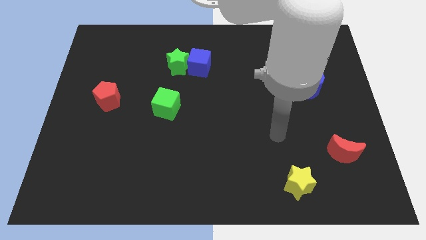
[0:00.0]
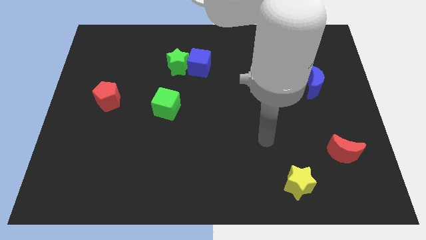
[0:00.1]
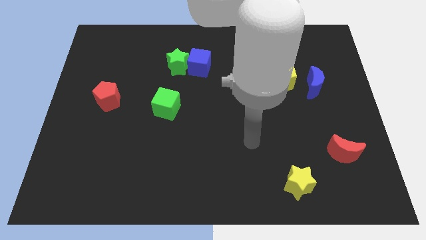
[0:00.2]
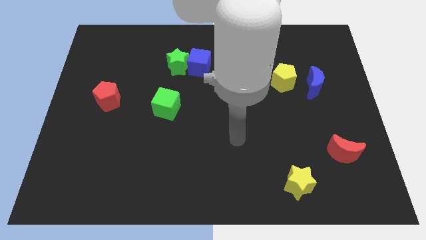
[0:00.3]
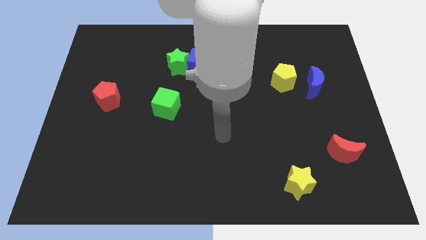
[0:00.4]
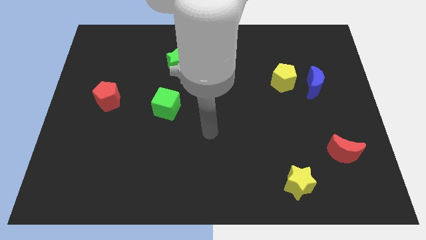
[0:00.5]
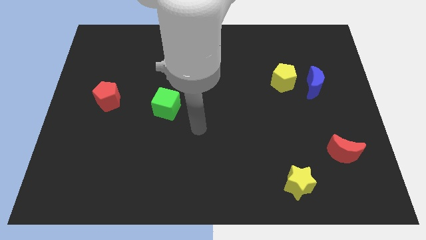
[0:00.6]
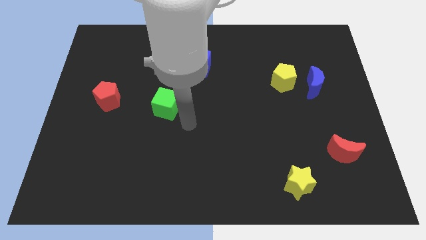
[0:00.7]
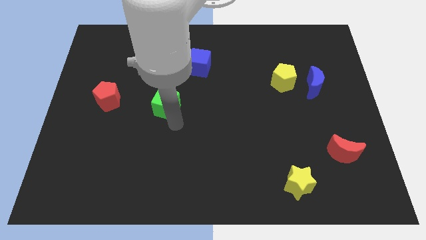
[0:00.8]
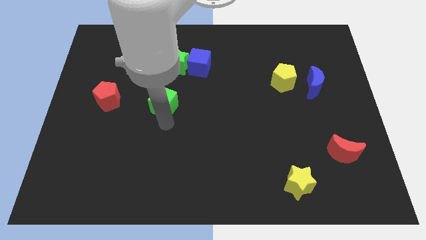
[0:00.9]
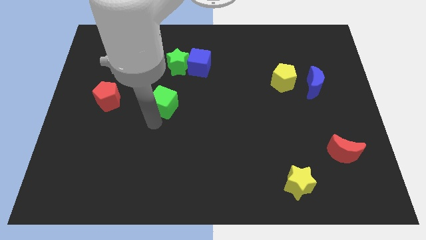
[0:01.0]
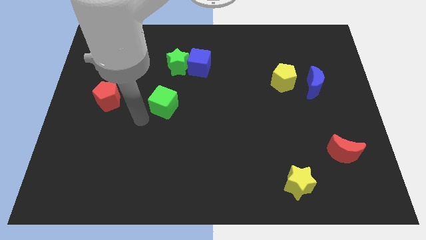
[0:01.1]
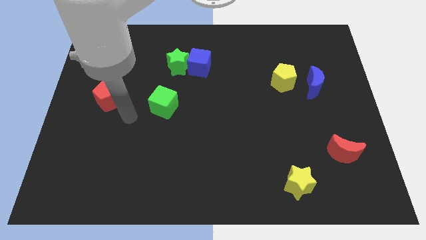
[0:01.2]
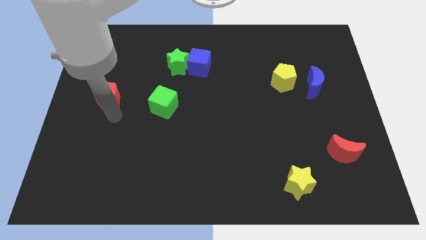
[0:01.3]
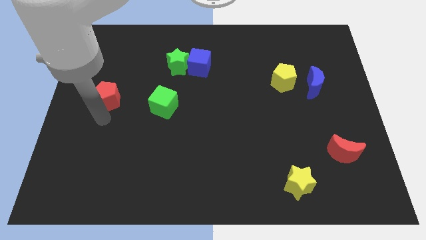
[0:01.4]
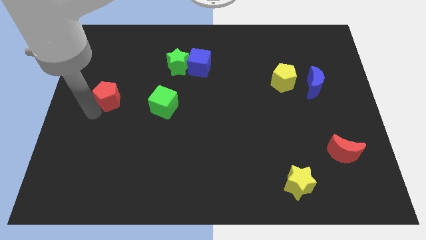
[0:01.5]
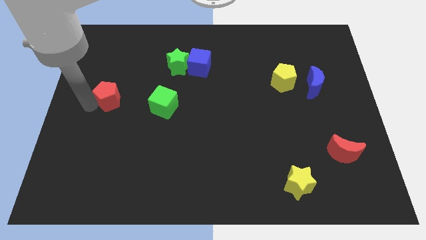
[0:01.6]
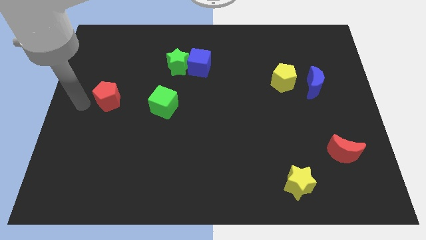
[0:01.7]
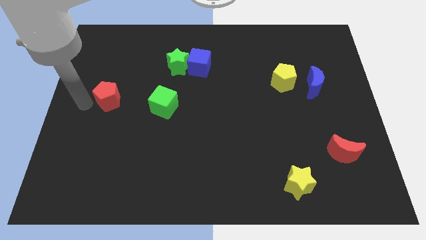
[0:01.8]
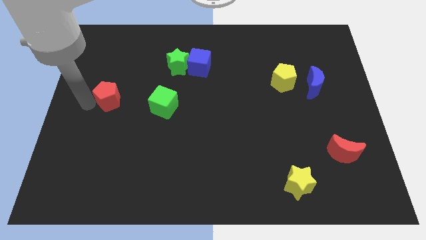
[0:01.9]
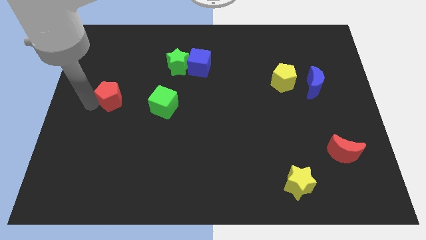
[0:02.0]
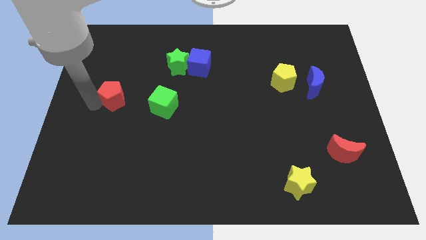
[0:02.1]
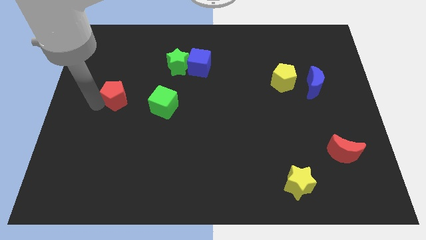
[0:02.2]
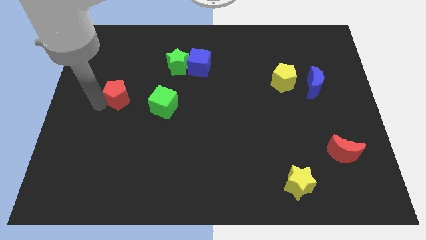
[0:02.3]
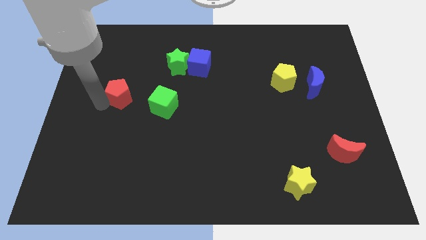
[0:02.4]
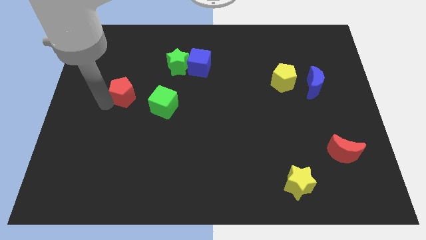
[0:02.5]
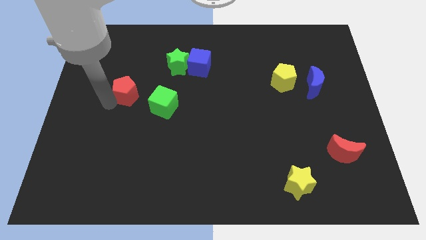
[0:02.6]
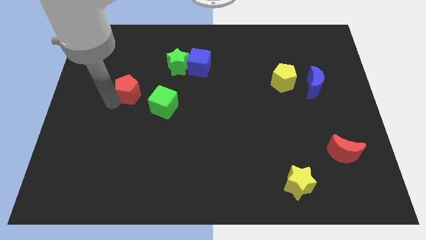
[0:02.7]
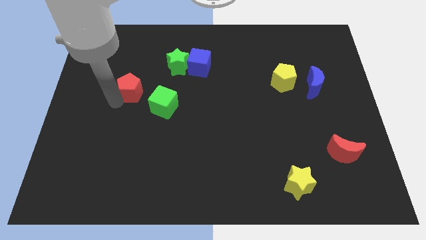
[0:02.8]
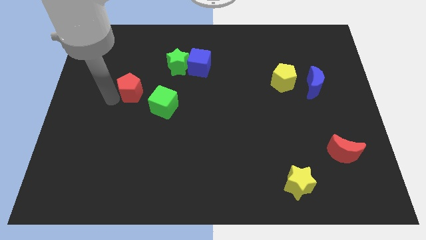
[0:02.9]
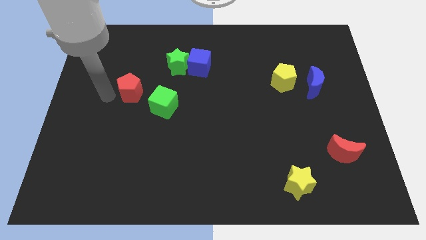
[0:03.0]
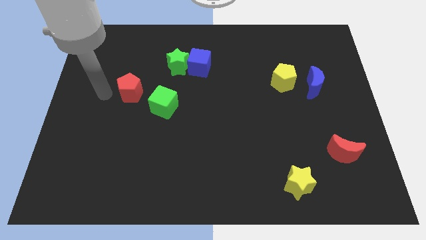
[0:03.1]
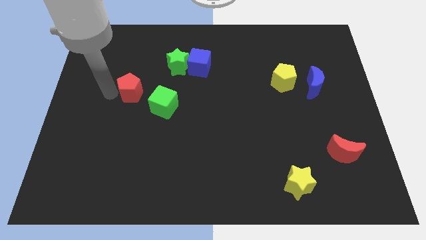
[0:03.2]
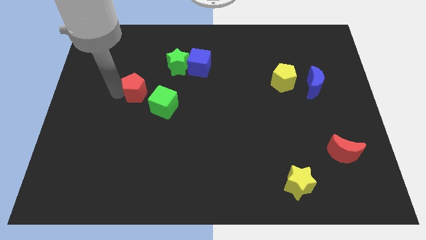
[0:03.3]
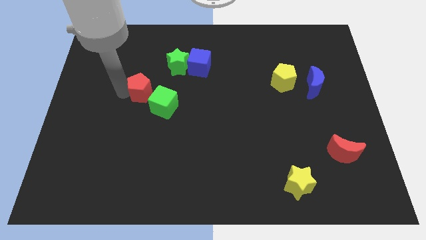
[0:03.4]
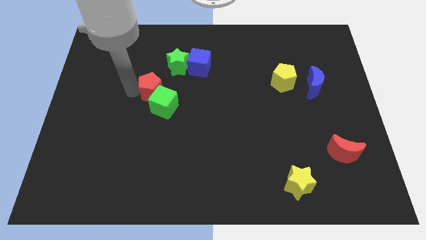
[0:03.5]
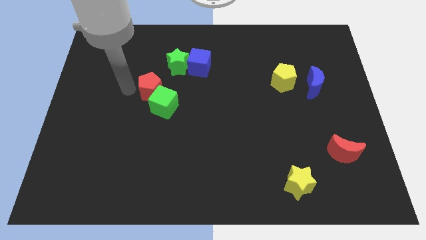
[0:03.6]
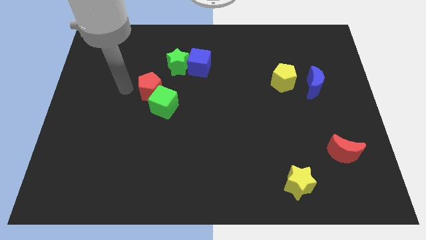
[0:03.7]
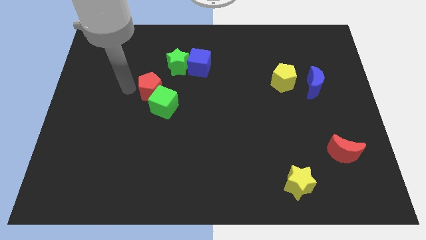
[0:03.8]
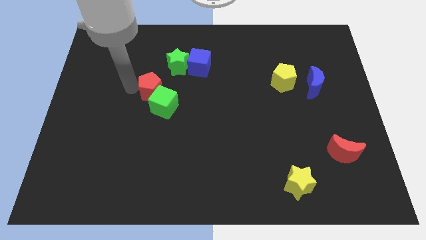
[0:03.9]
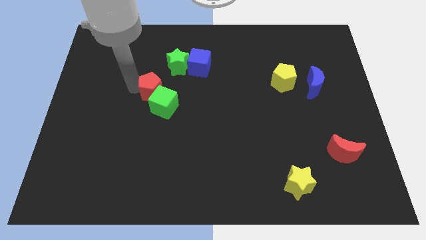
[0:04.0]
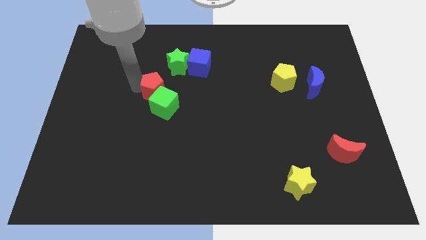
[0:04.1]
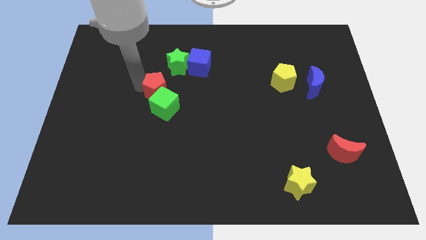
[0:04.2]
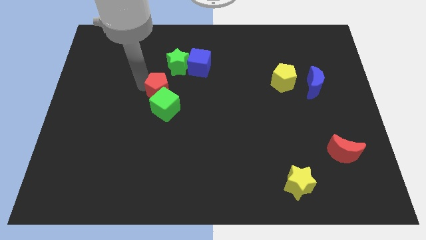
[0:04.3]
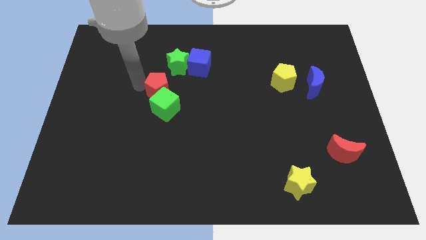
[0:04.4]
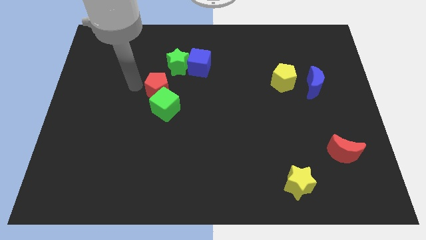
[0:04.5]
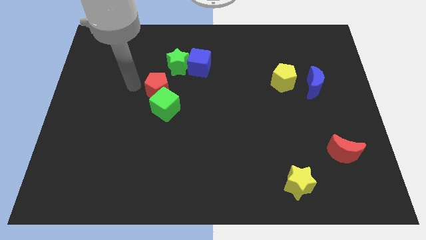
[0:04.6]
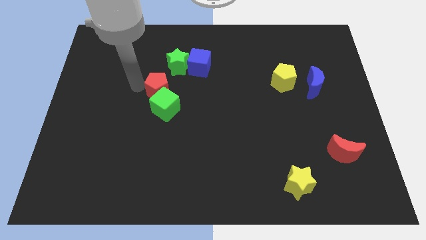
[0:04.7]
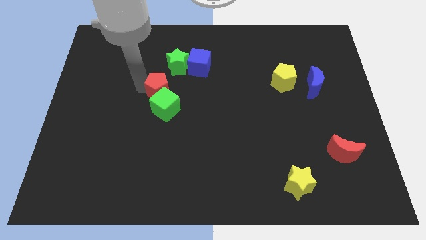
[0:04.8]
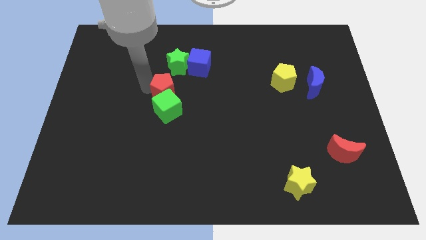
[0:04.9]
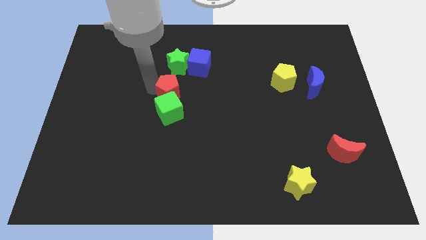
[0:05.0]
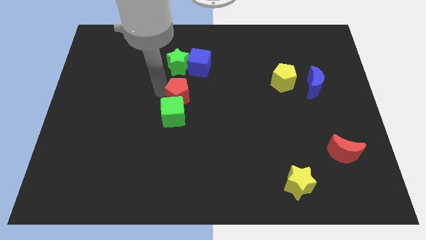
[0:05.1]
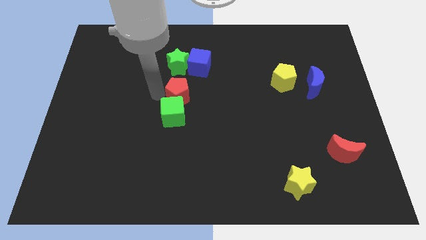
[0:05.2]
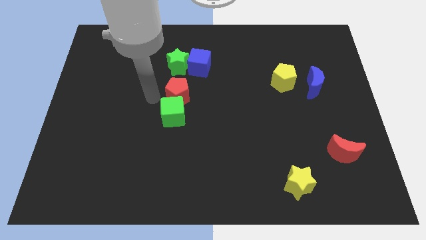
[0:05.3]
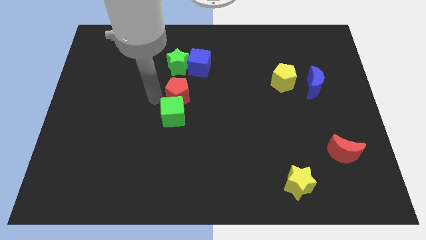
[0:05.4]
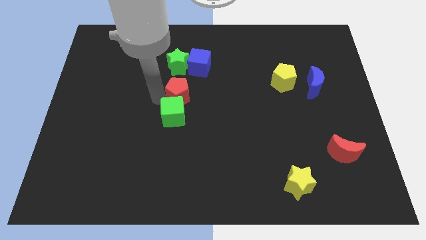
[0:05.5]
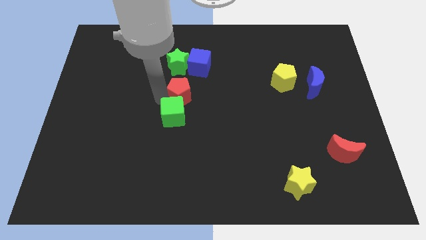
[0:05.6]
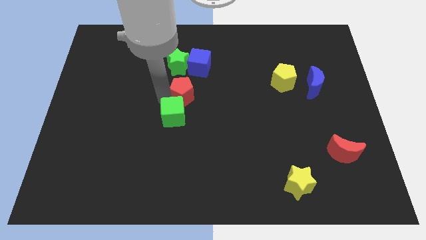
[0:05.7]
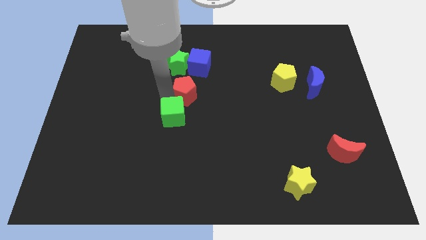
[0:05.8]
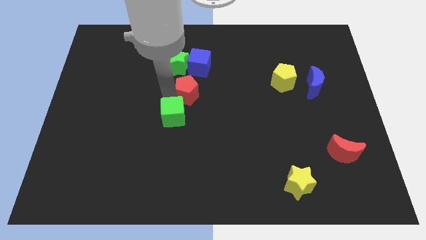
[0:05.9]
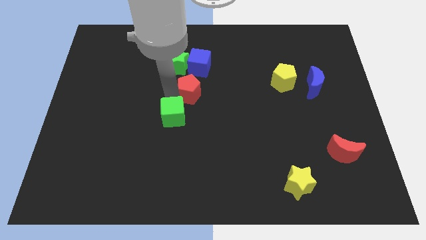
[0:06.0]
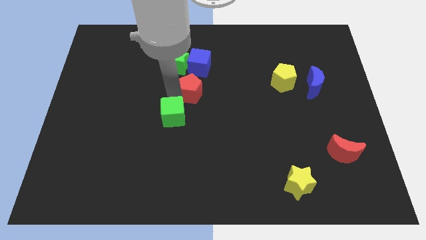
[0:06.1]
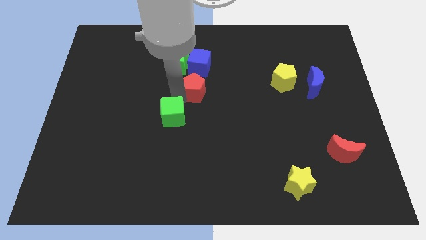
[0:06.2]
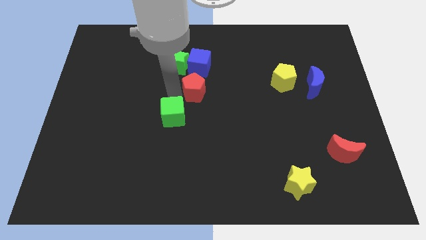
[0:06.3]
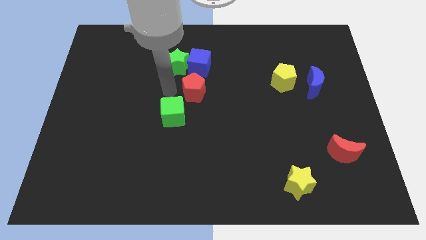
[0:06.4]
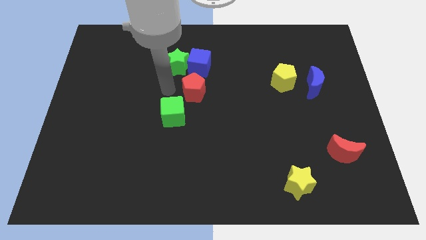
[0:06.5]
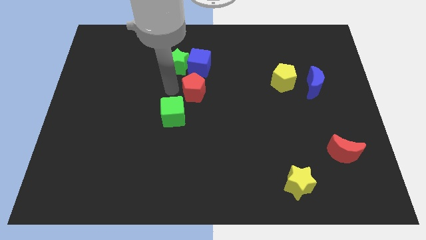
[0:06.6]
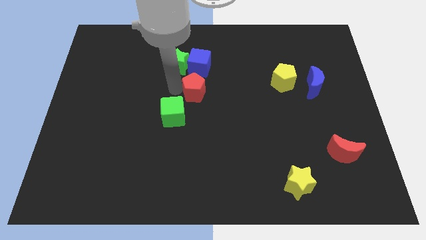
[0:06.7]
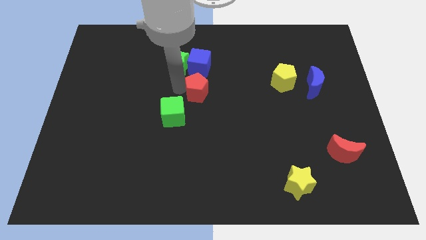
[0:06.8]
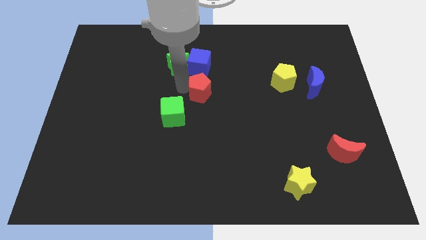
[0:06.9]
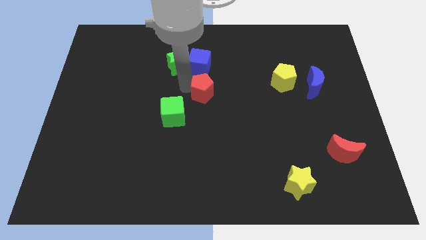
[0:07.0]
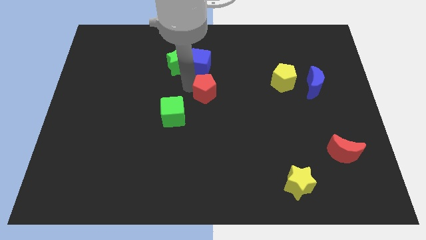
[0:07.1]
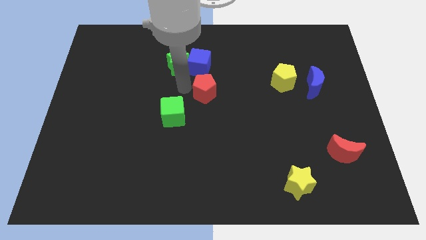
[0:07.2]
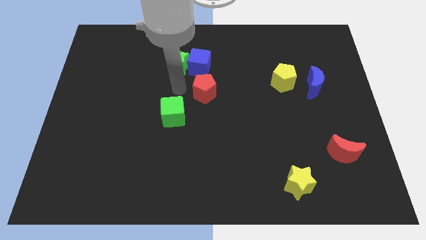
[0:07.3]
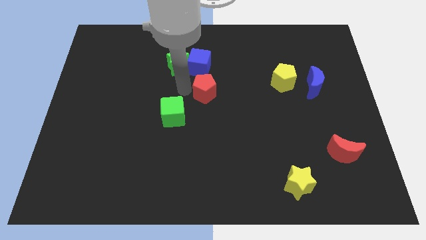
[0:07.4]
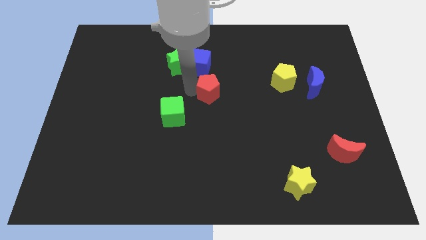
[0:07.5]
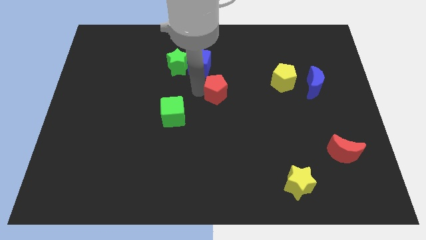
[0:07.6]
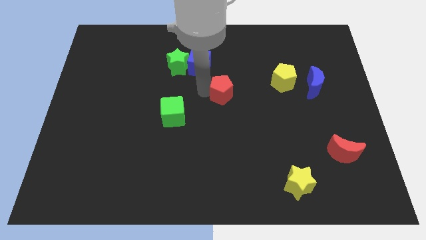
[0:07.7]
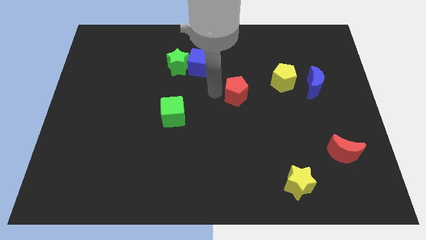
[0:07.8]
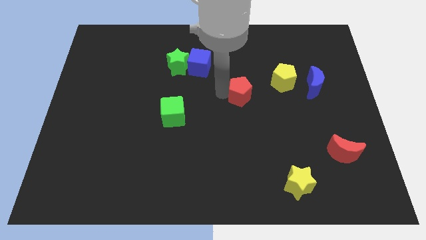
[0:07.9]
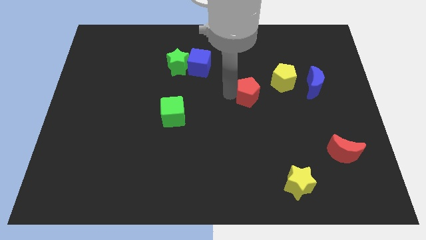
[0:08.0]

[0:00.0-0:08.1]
slide the red pentagon to the bottom left of the yellow pentagon
